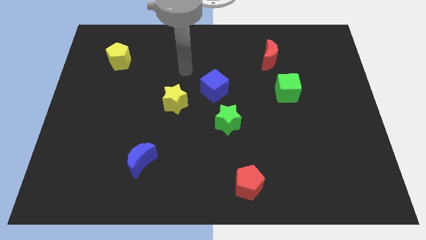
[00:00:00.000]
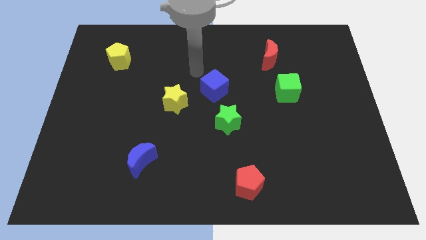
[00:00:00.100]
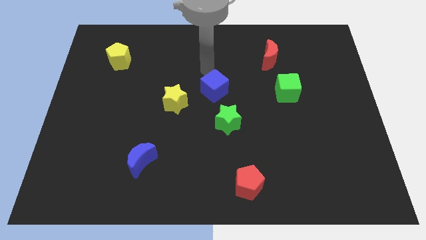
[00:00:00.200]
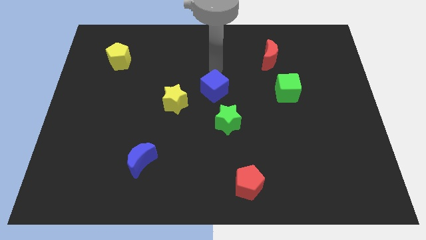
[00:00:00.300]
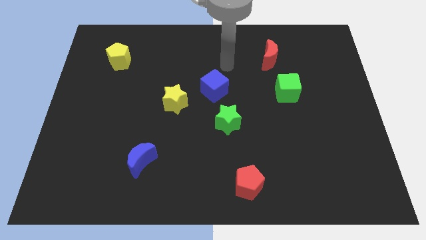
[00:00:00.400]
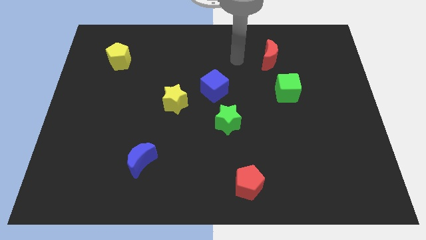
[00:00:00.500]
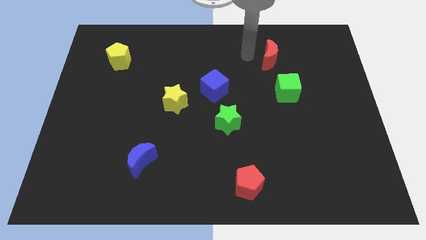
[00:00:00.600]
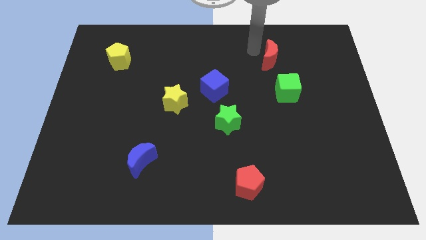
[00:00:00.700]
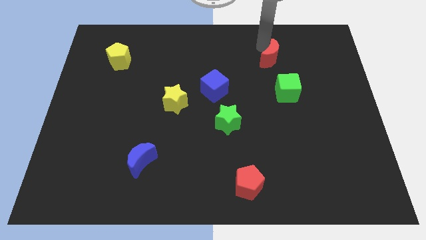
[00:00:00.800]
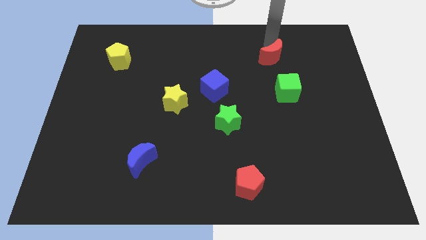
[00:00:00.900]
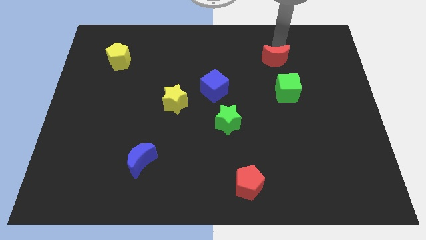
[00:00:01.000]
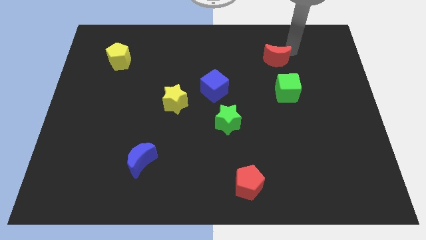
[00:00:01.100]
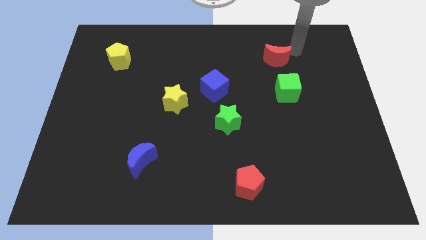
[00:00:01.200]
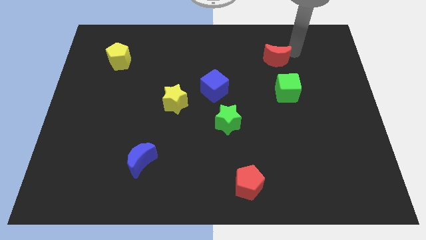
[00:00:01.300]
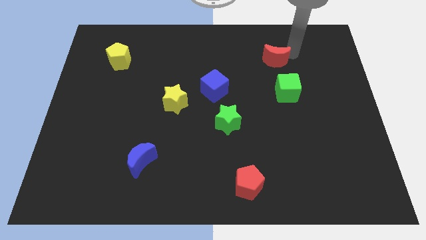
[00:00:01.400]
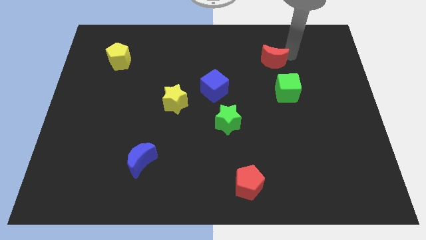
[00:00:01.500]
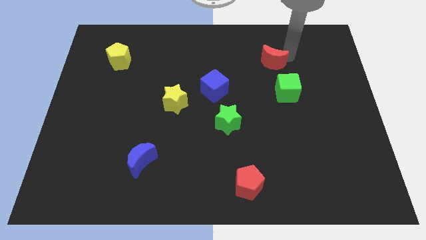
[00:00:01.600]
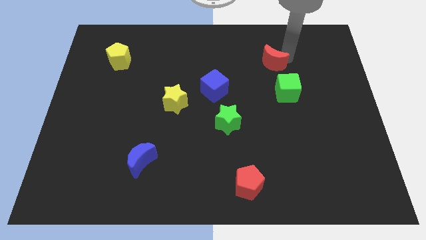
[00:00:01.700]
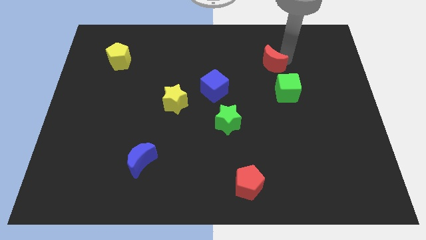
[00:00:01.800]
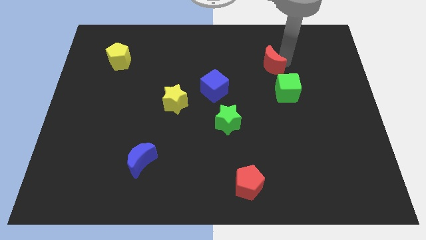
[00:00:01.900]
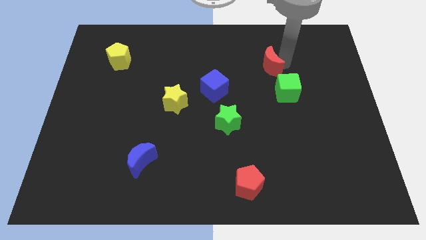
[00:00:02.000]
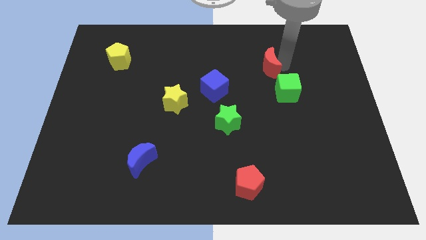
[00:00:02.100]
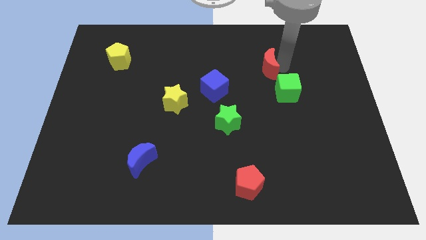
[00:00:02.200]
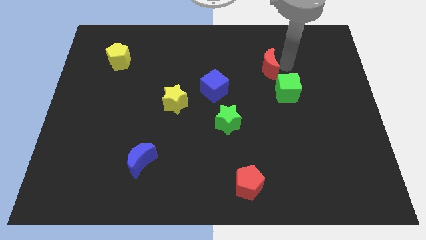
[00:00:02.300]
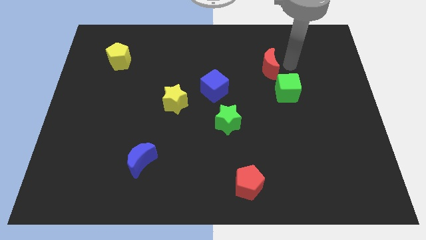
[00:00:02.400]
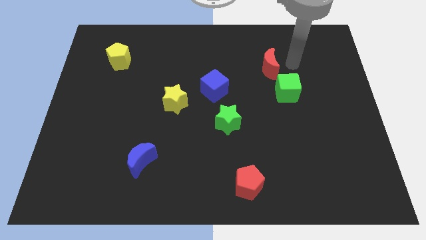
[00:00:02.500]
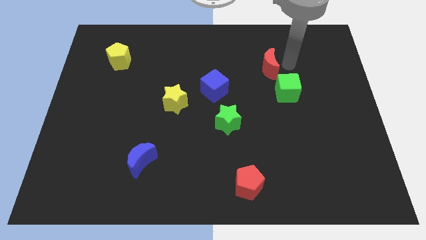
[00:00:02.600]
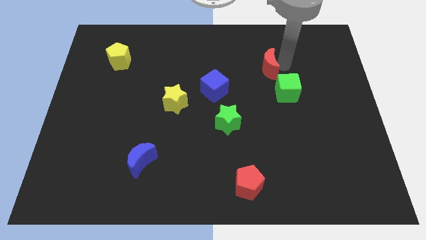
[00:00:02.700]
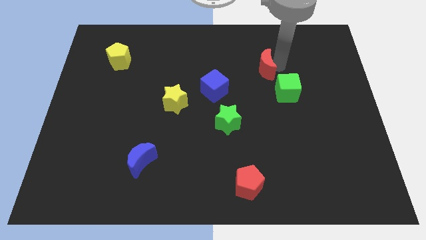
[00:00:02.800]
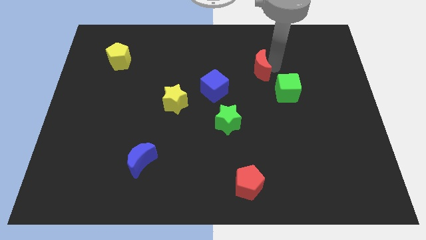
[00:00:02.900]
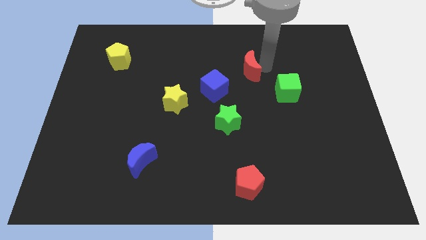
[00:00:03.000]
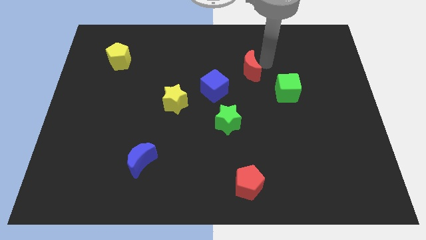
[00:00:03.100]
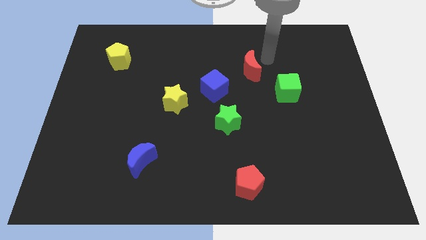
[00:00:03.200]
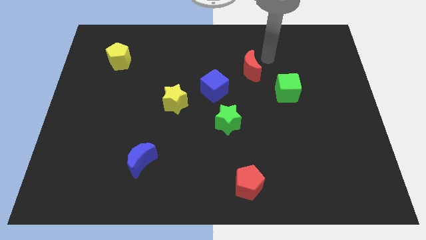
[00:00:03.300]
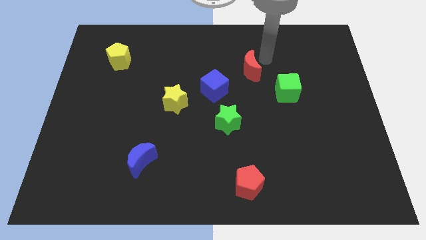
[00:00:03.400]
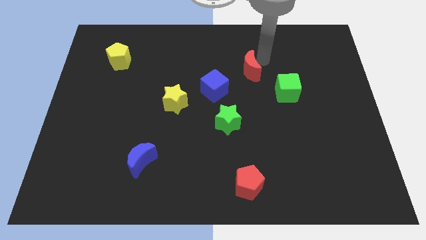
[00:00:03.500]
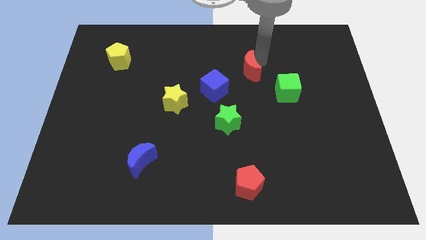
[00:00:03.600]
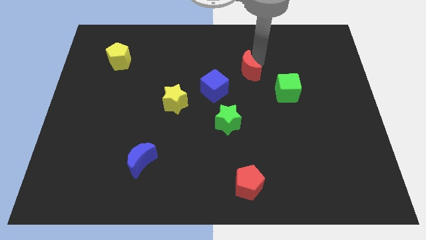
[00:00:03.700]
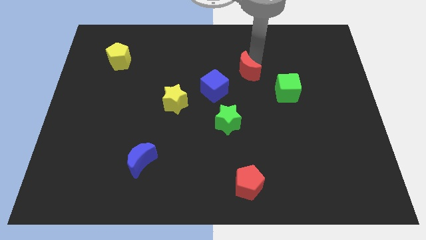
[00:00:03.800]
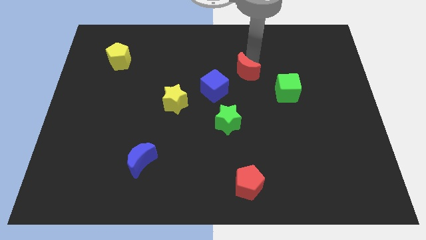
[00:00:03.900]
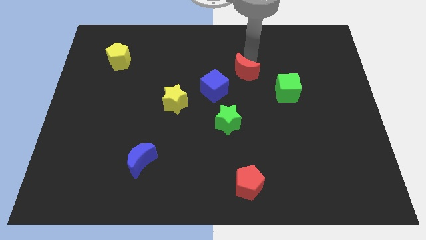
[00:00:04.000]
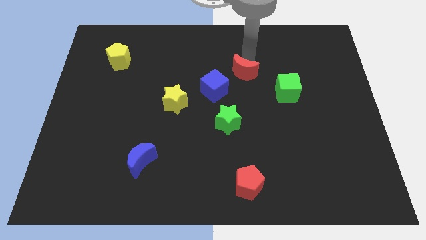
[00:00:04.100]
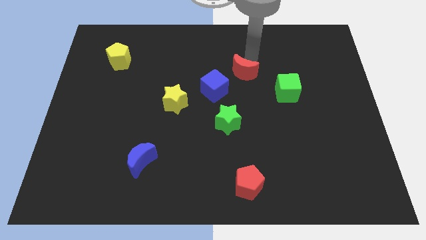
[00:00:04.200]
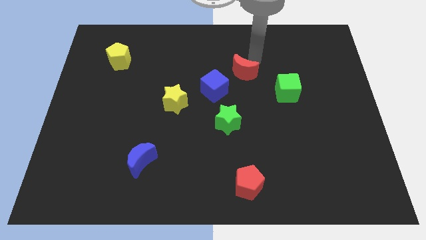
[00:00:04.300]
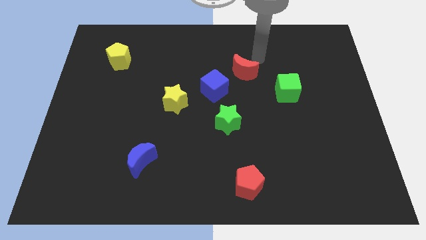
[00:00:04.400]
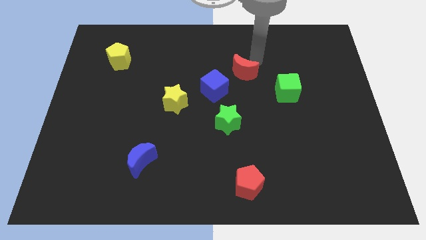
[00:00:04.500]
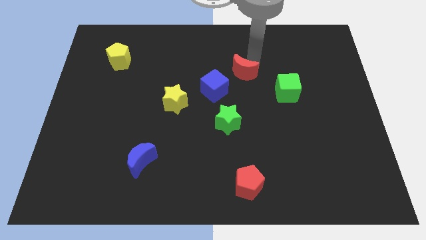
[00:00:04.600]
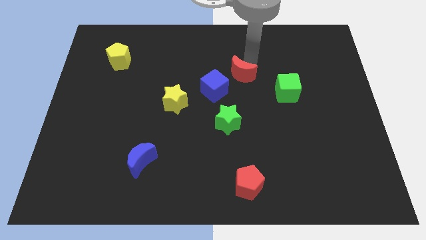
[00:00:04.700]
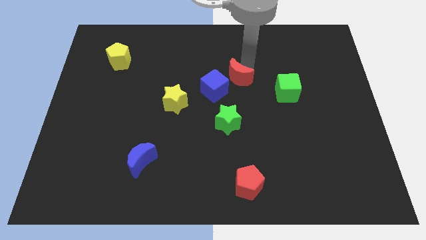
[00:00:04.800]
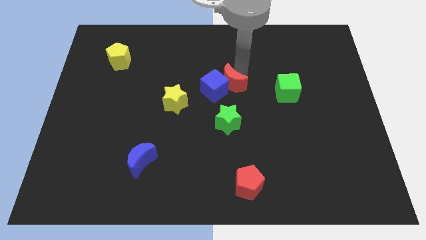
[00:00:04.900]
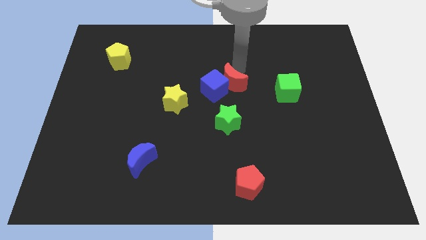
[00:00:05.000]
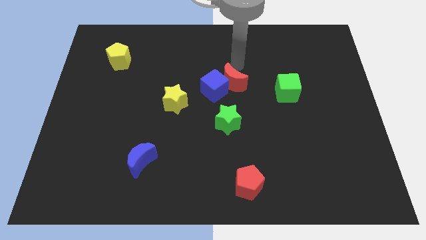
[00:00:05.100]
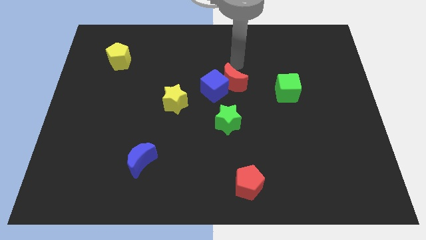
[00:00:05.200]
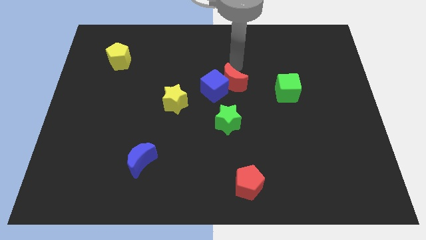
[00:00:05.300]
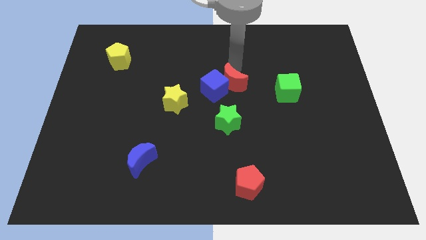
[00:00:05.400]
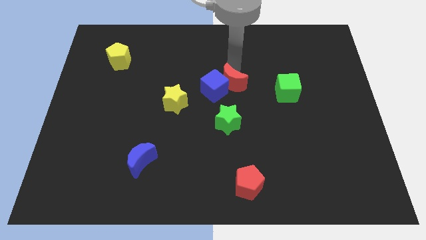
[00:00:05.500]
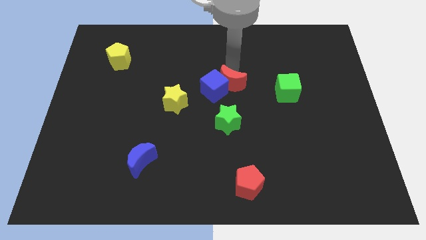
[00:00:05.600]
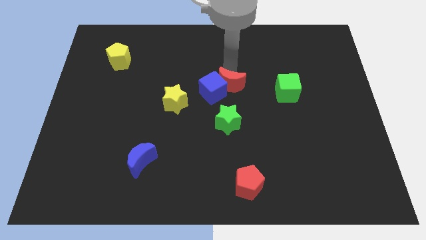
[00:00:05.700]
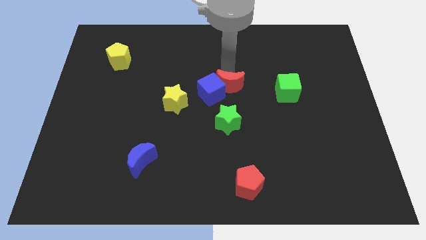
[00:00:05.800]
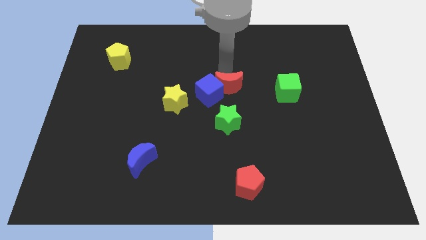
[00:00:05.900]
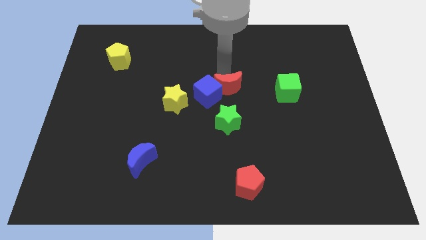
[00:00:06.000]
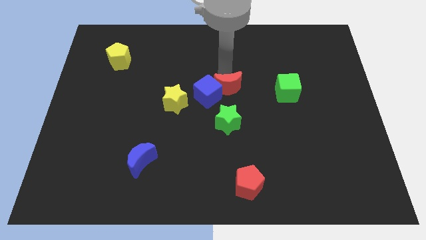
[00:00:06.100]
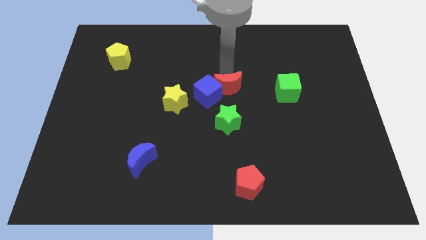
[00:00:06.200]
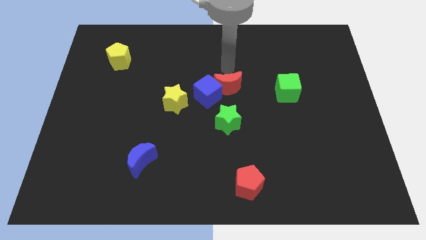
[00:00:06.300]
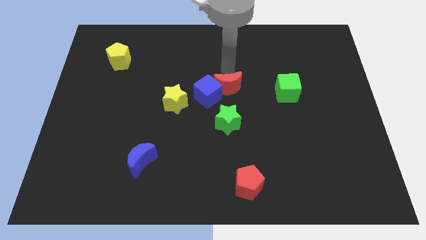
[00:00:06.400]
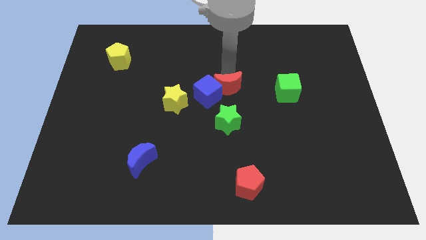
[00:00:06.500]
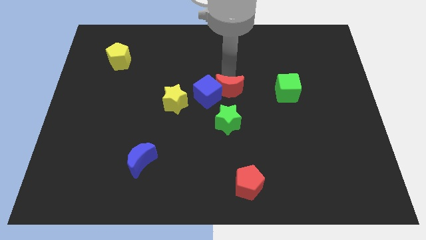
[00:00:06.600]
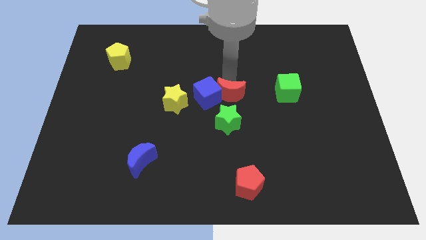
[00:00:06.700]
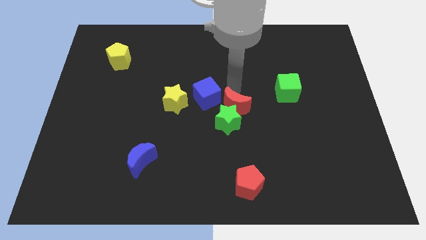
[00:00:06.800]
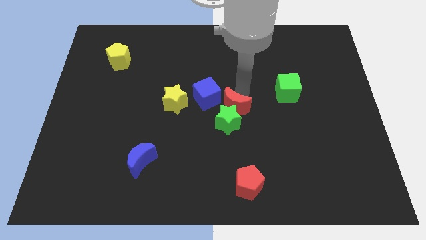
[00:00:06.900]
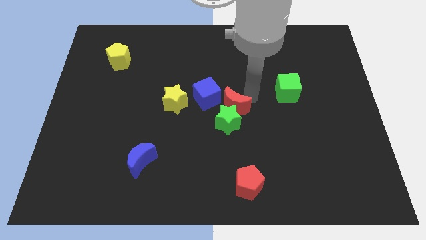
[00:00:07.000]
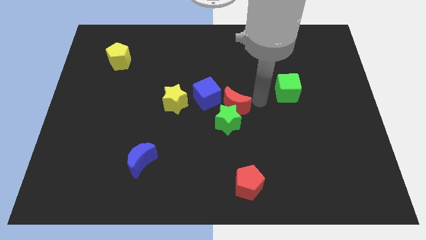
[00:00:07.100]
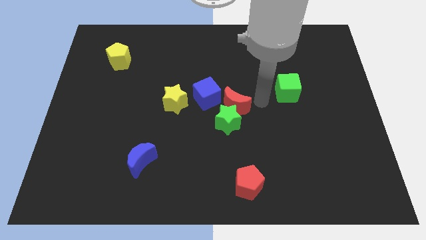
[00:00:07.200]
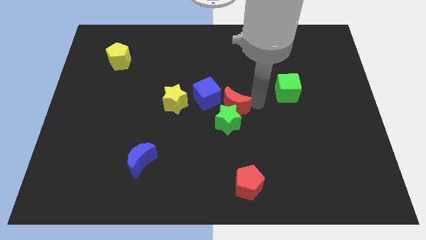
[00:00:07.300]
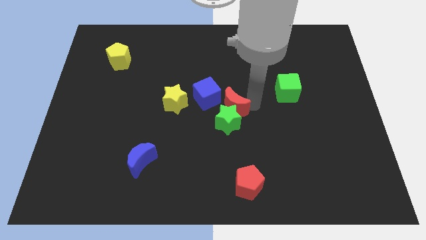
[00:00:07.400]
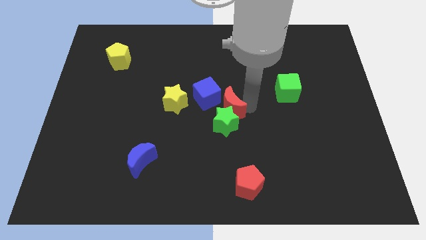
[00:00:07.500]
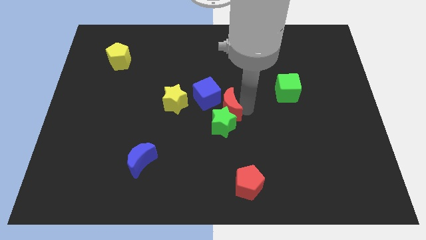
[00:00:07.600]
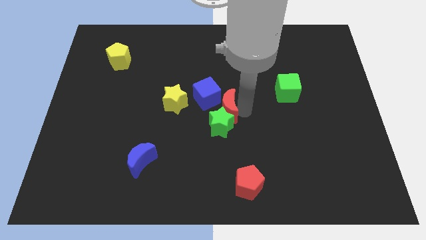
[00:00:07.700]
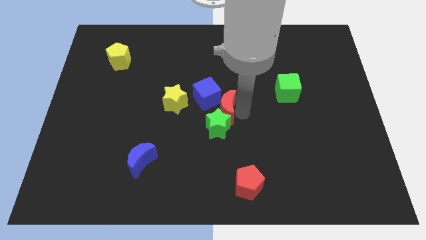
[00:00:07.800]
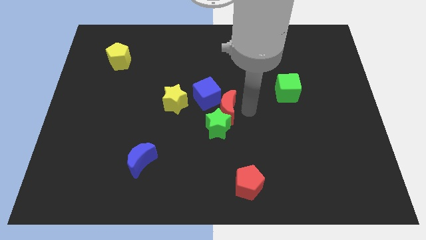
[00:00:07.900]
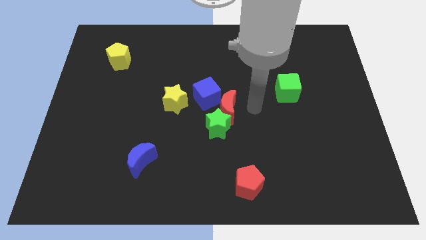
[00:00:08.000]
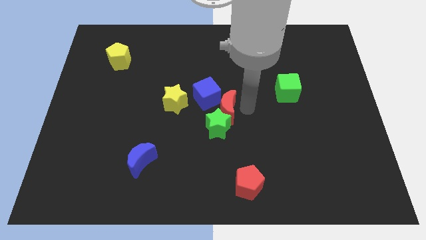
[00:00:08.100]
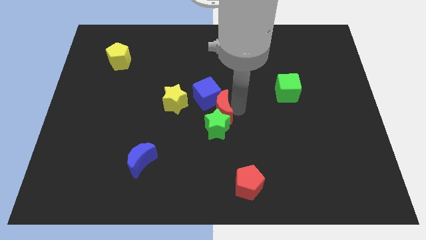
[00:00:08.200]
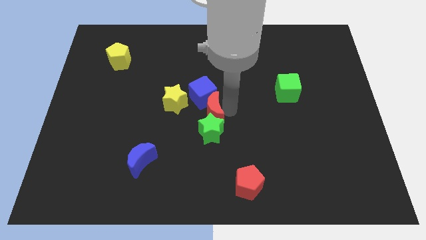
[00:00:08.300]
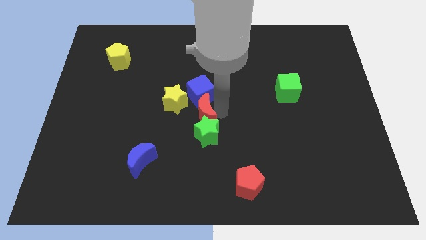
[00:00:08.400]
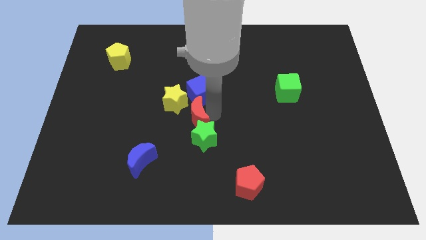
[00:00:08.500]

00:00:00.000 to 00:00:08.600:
move the red moon to the bottom left side of the blue cube
